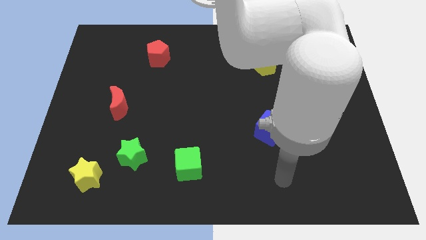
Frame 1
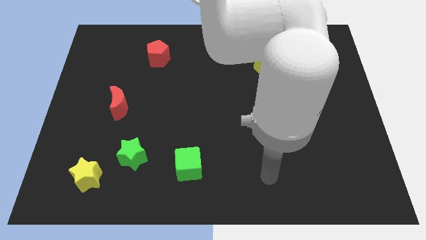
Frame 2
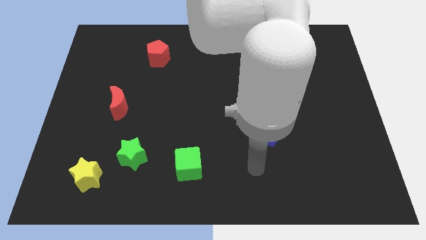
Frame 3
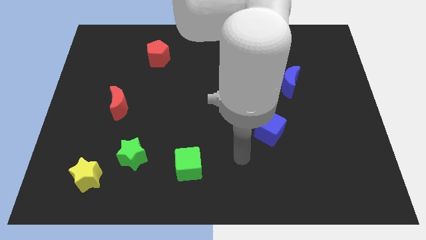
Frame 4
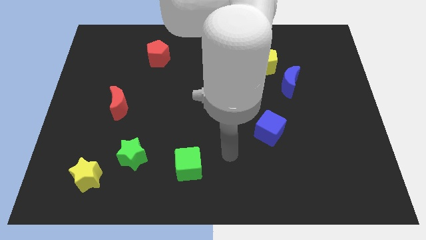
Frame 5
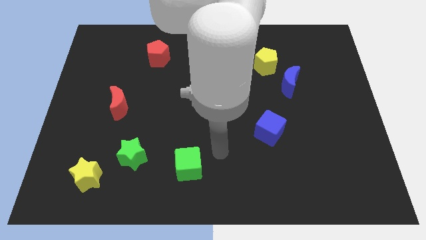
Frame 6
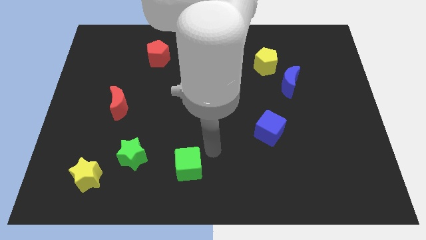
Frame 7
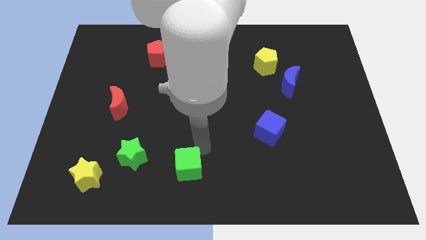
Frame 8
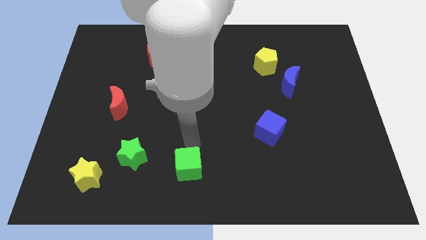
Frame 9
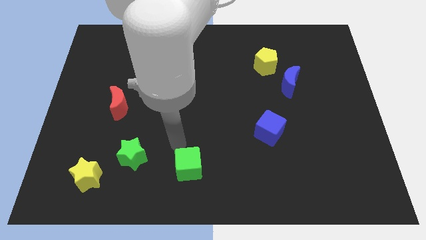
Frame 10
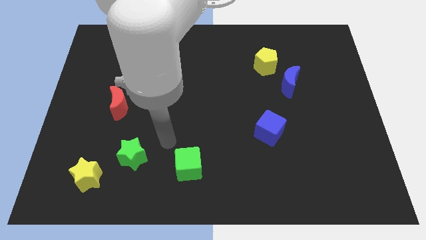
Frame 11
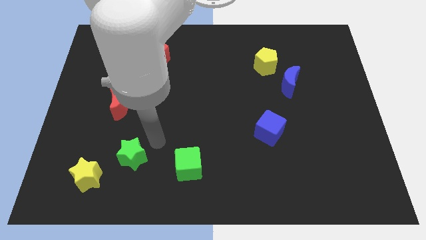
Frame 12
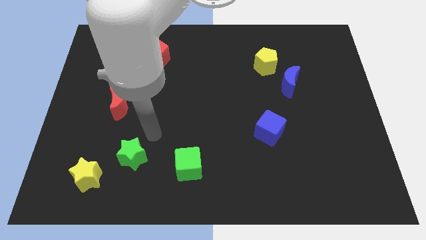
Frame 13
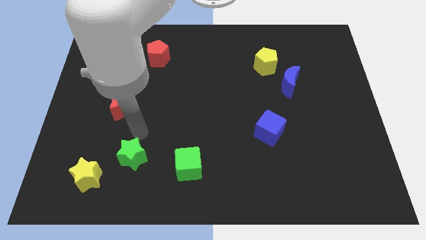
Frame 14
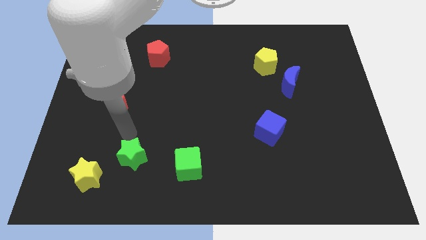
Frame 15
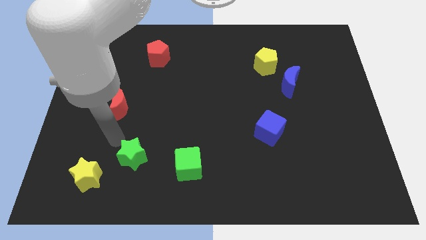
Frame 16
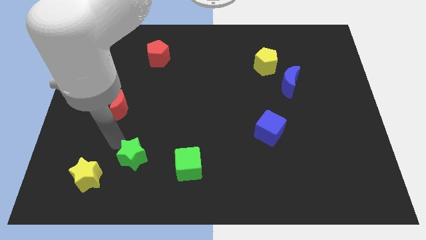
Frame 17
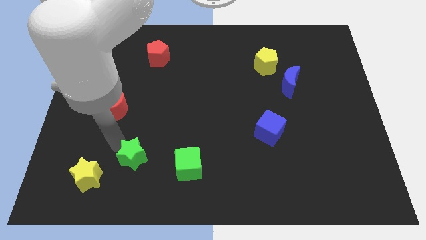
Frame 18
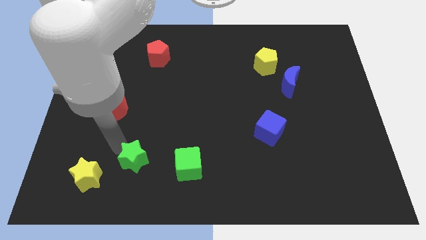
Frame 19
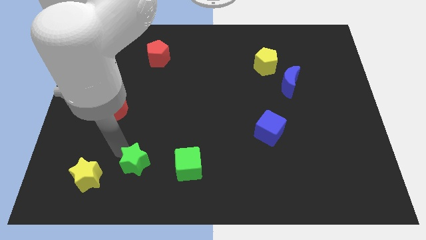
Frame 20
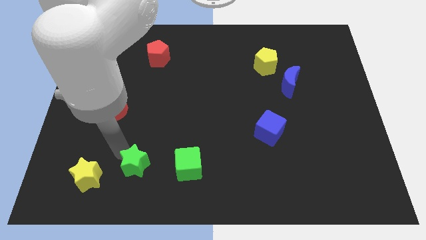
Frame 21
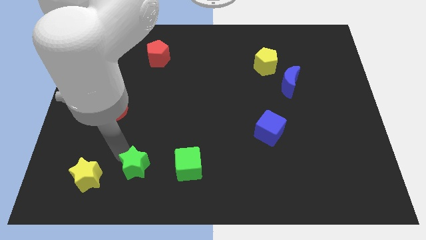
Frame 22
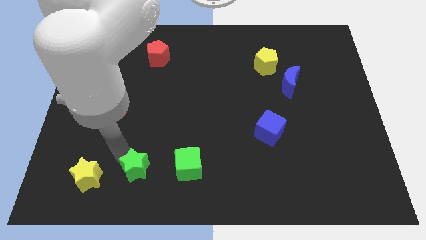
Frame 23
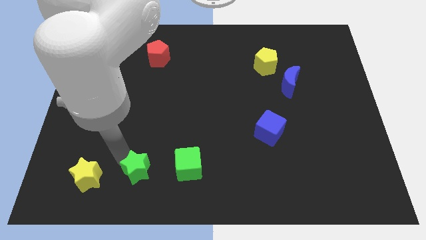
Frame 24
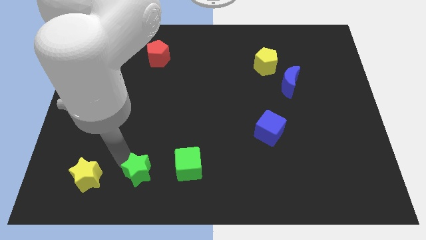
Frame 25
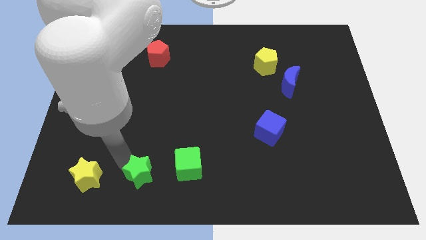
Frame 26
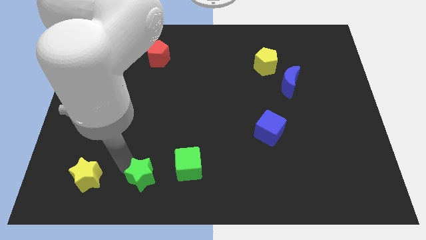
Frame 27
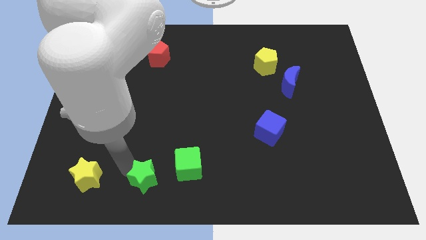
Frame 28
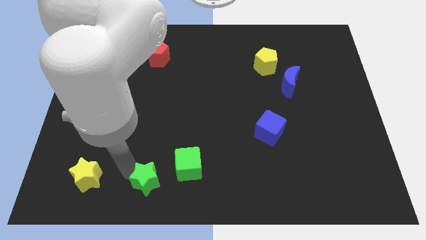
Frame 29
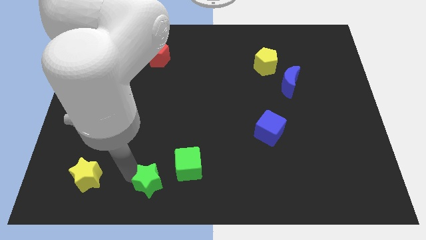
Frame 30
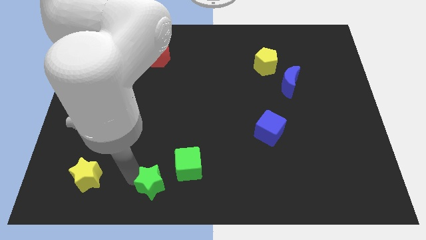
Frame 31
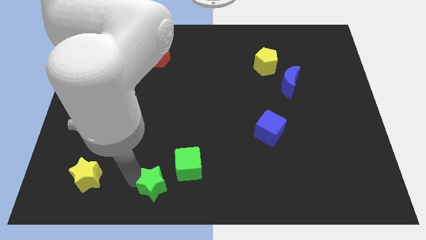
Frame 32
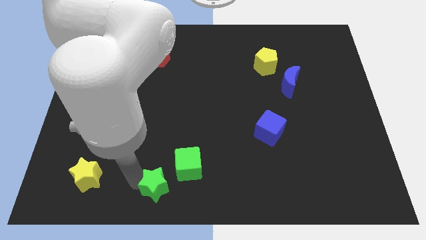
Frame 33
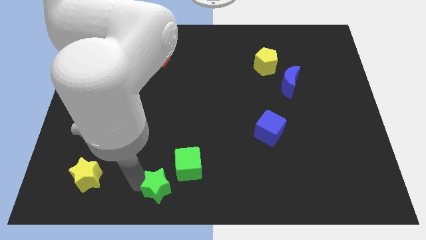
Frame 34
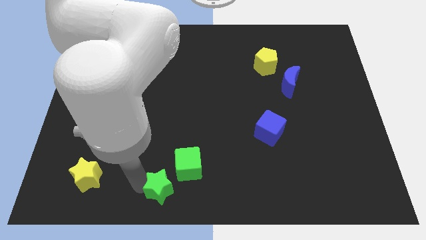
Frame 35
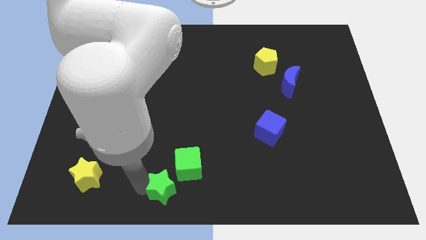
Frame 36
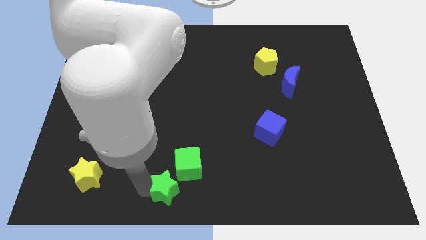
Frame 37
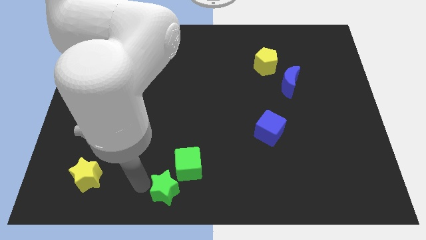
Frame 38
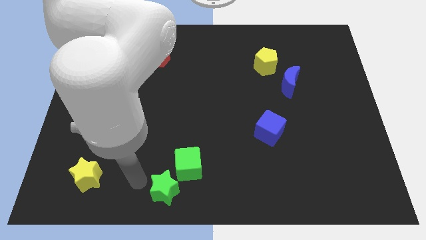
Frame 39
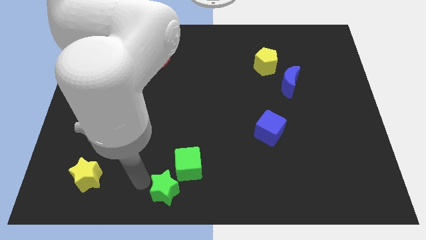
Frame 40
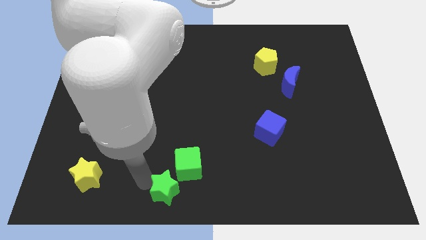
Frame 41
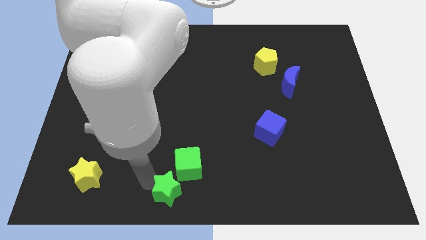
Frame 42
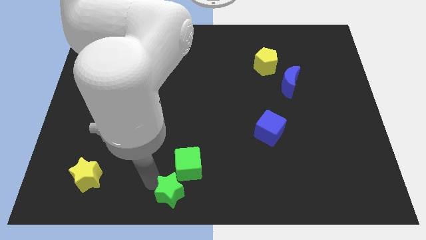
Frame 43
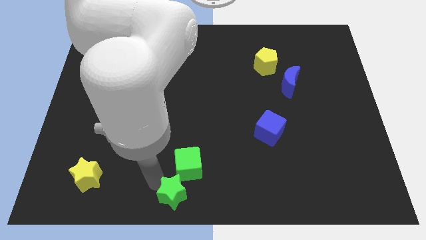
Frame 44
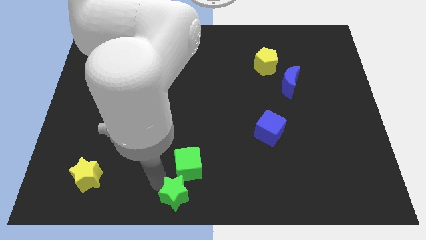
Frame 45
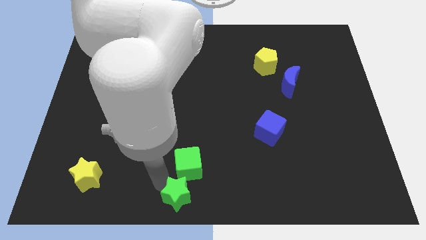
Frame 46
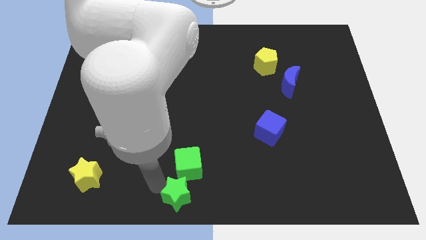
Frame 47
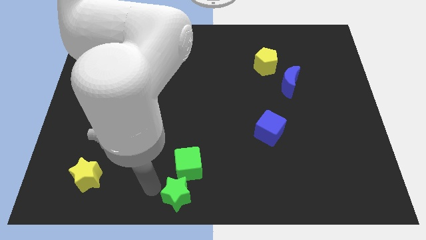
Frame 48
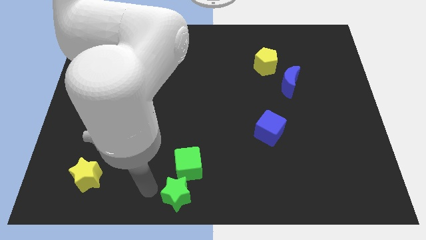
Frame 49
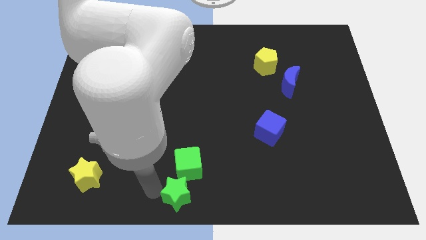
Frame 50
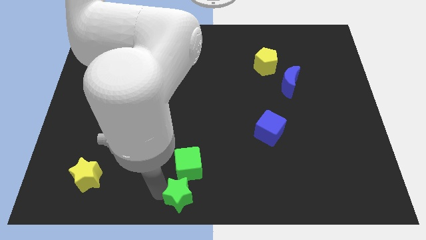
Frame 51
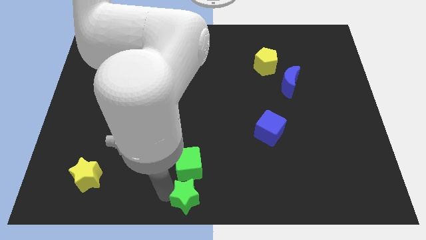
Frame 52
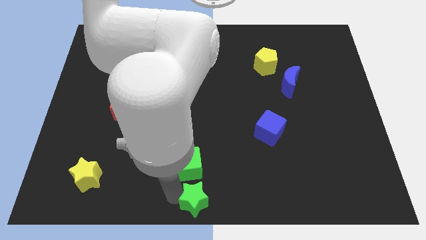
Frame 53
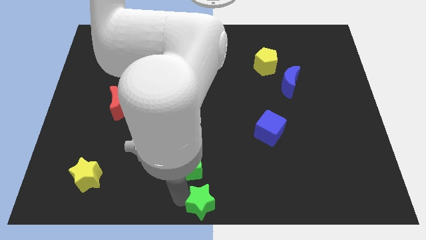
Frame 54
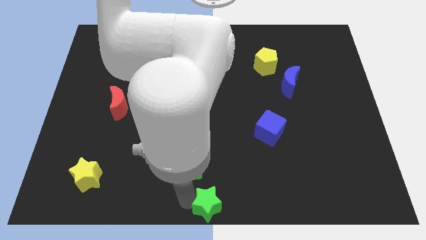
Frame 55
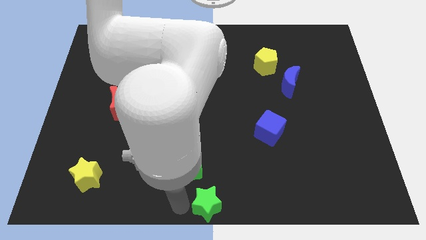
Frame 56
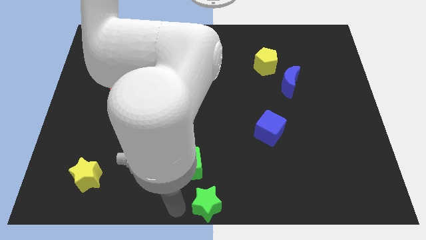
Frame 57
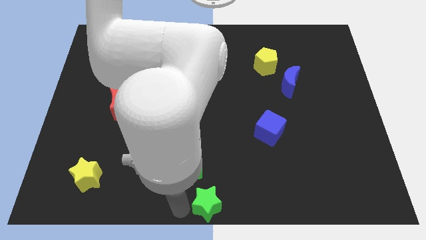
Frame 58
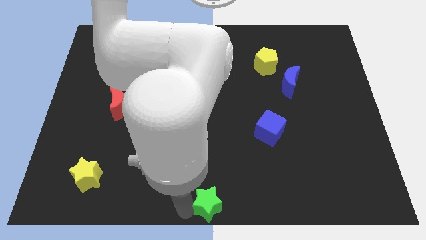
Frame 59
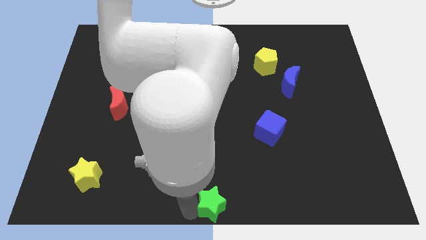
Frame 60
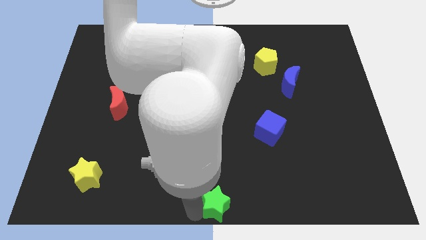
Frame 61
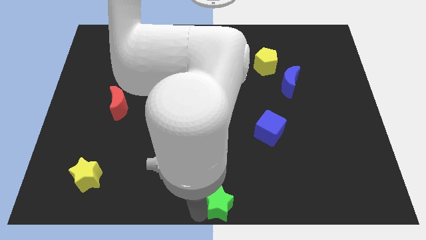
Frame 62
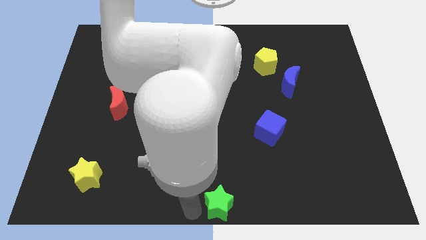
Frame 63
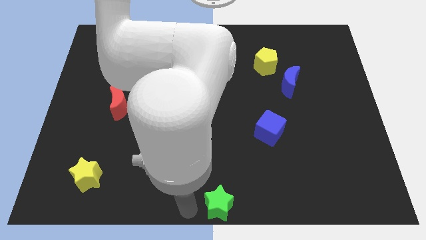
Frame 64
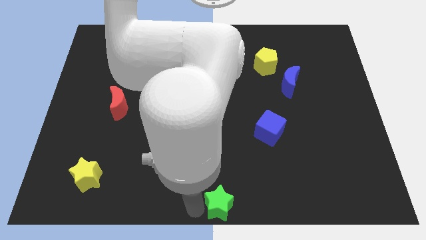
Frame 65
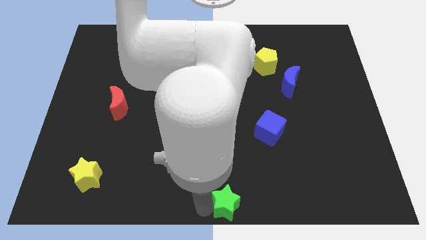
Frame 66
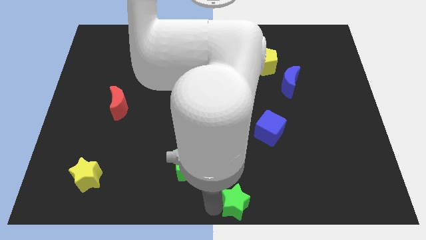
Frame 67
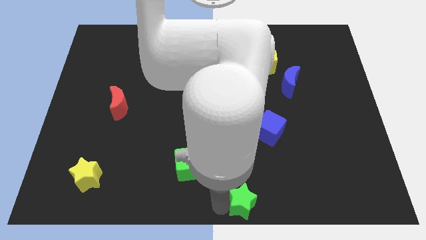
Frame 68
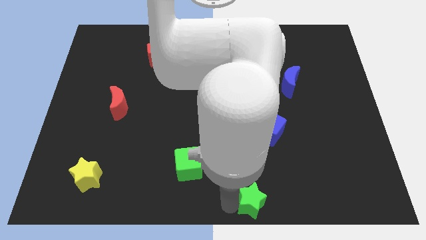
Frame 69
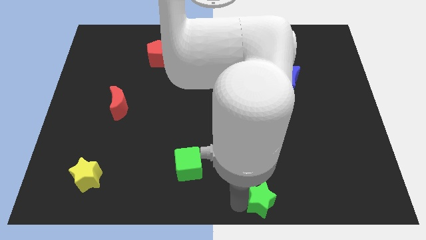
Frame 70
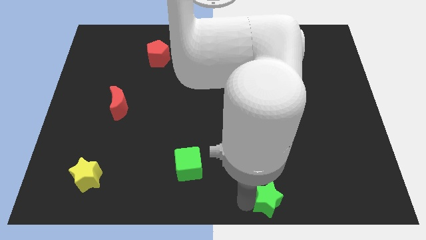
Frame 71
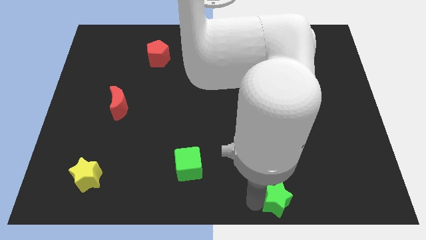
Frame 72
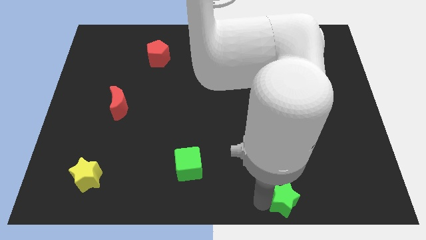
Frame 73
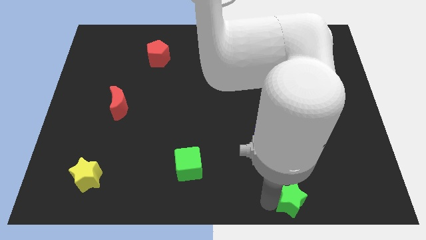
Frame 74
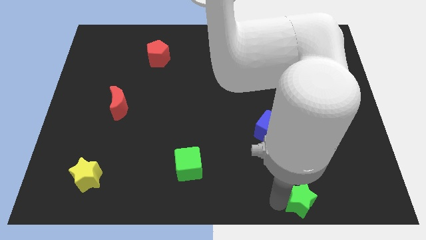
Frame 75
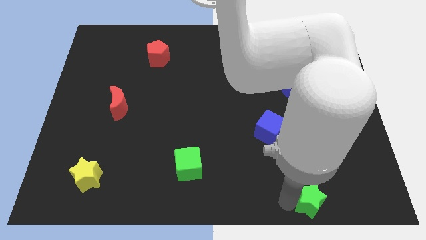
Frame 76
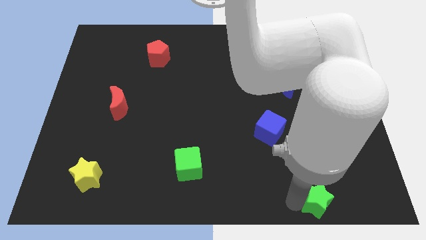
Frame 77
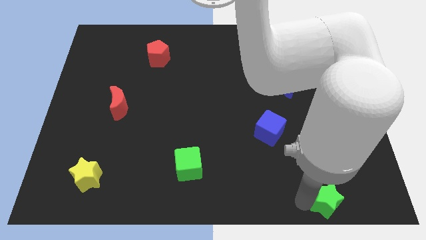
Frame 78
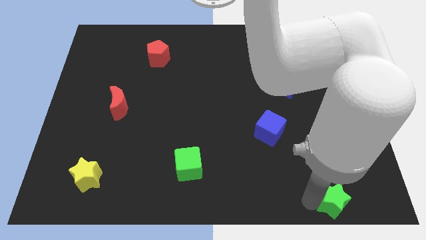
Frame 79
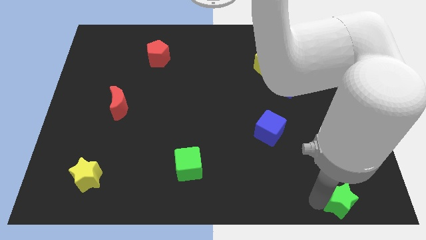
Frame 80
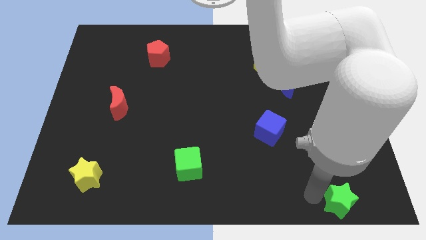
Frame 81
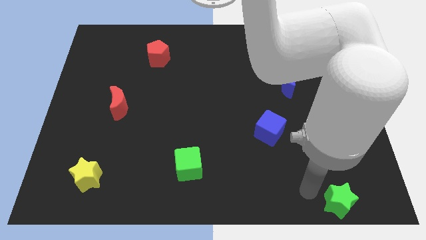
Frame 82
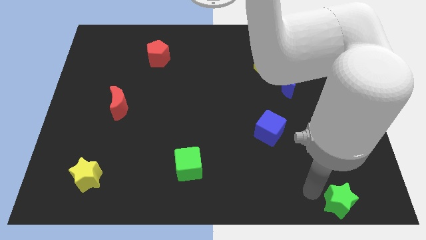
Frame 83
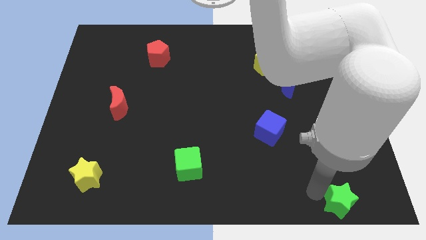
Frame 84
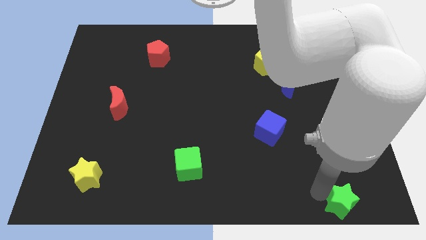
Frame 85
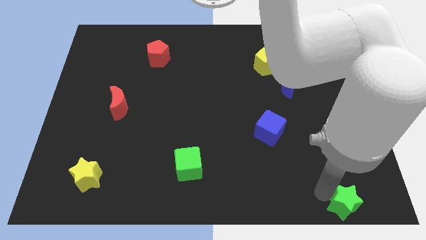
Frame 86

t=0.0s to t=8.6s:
move the green star to the lower right corner
